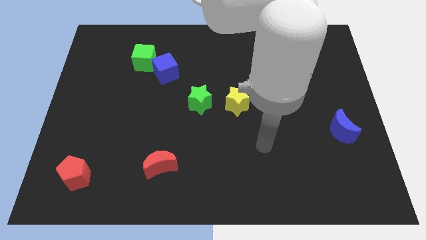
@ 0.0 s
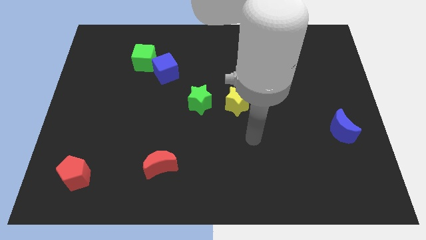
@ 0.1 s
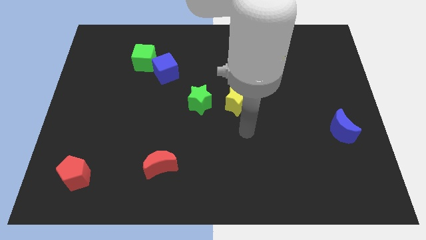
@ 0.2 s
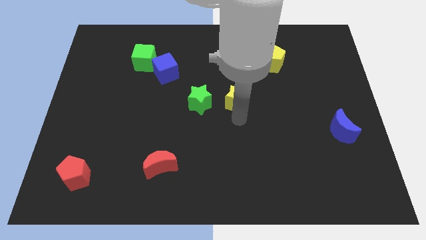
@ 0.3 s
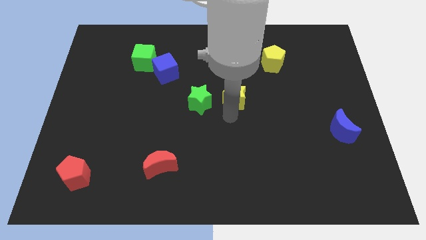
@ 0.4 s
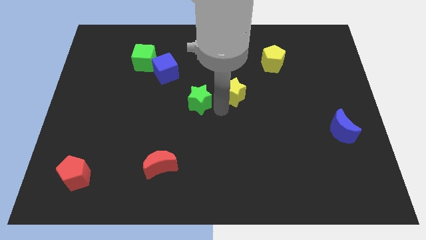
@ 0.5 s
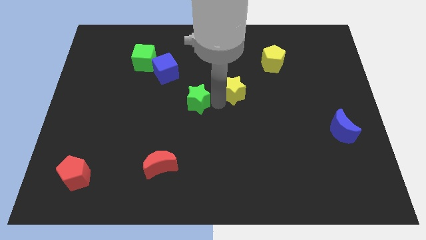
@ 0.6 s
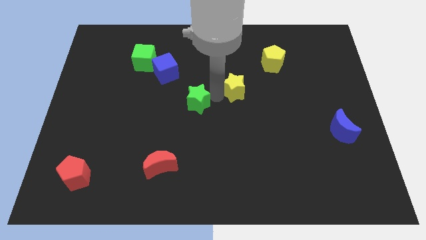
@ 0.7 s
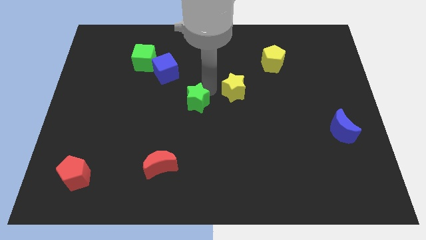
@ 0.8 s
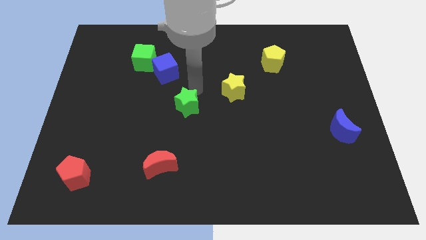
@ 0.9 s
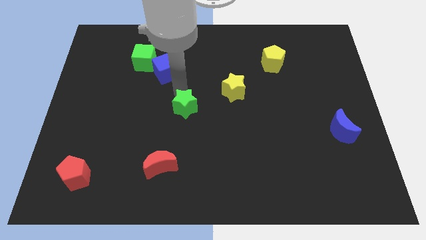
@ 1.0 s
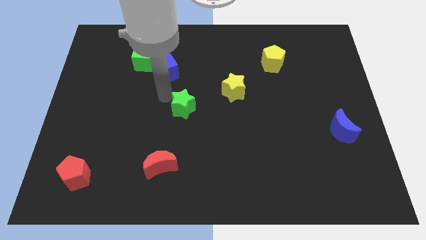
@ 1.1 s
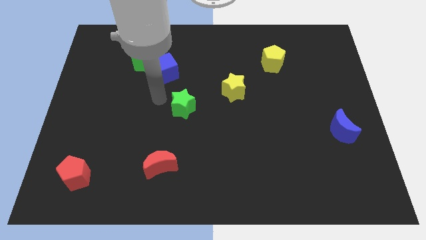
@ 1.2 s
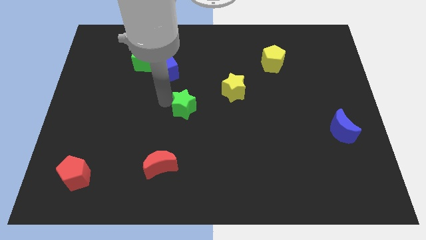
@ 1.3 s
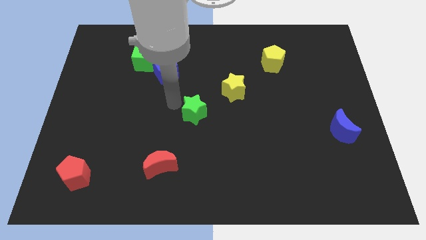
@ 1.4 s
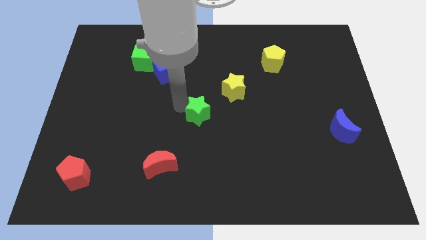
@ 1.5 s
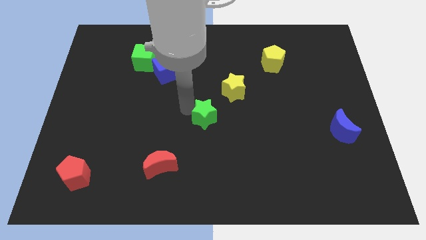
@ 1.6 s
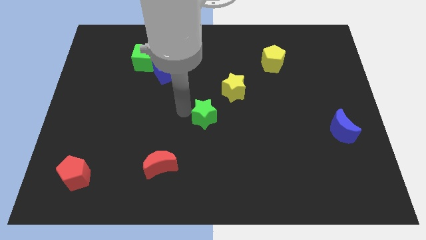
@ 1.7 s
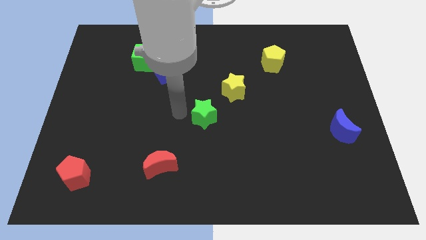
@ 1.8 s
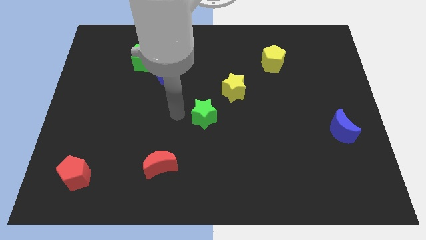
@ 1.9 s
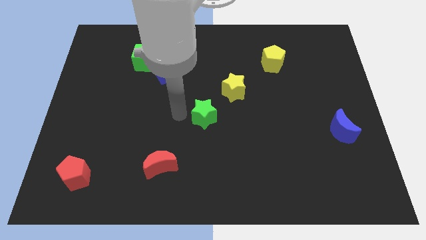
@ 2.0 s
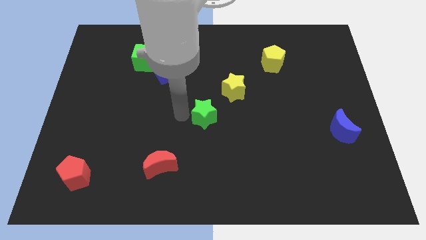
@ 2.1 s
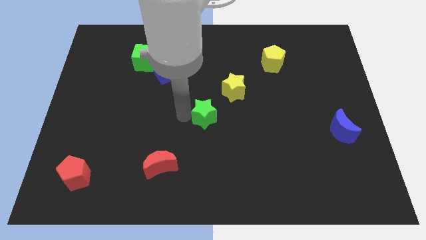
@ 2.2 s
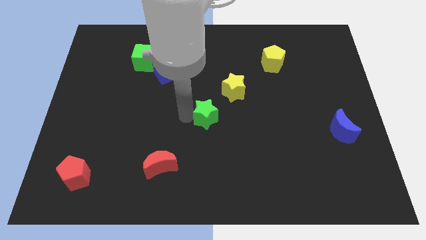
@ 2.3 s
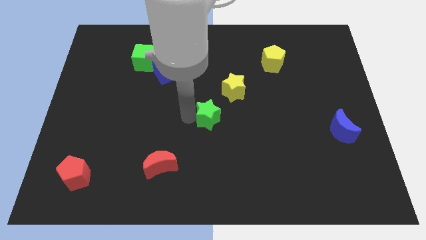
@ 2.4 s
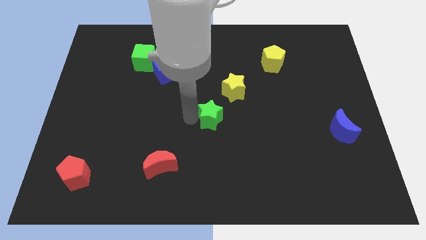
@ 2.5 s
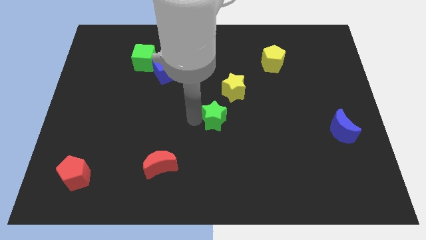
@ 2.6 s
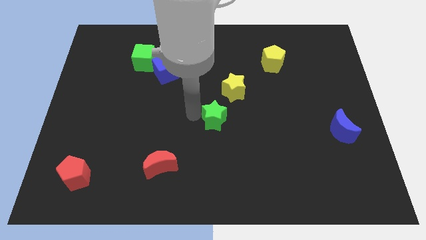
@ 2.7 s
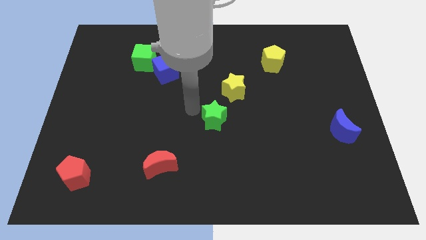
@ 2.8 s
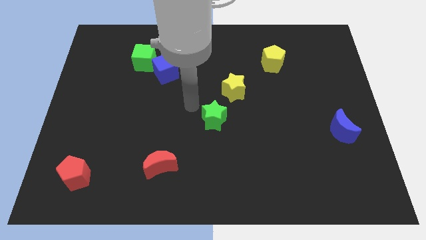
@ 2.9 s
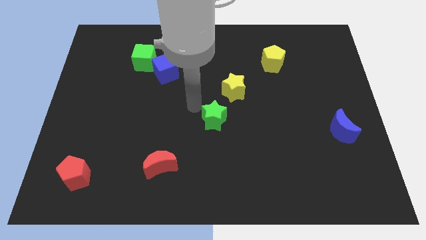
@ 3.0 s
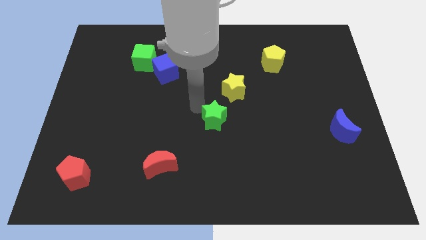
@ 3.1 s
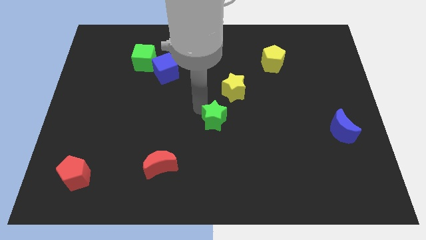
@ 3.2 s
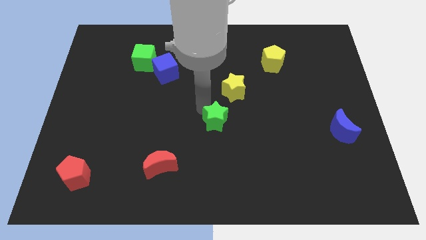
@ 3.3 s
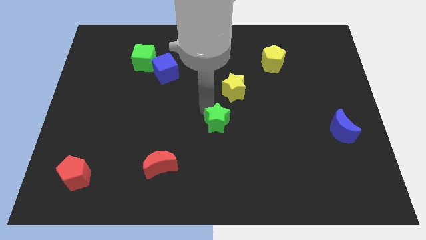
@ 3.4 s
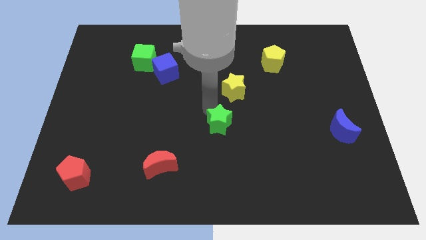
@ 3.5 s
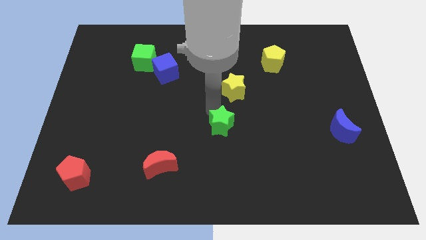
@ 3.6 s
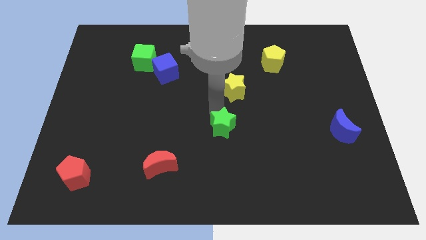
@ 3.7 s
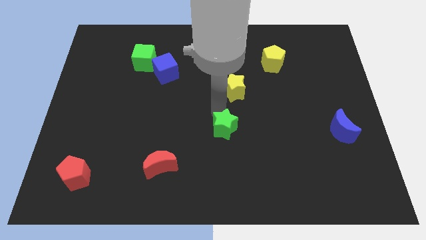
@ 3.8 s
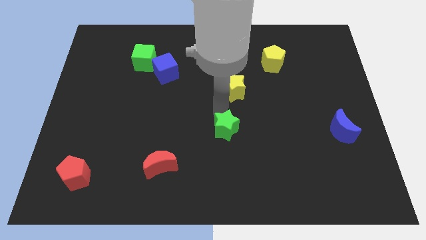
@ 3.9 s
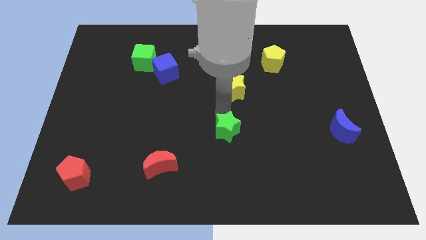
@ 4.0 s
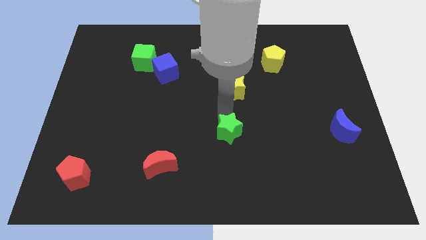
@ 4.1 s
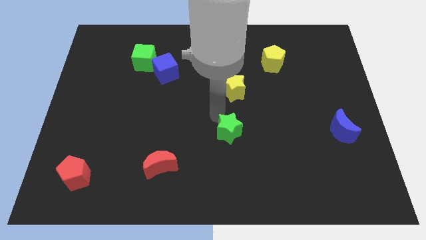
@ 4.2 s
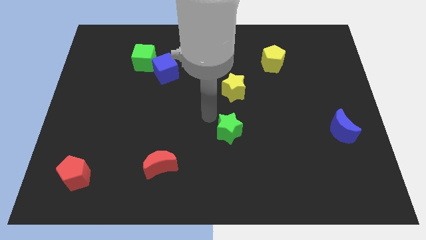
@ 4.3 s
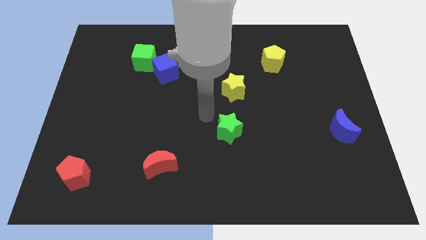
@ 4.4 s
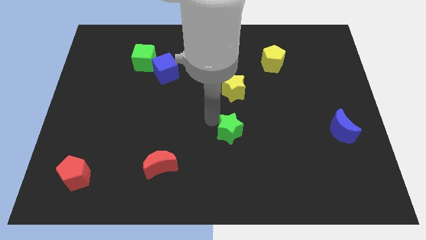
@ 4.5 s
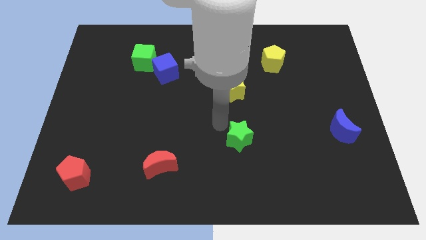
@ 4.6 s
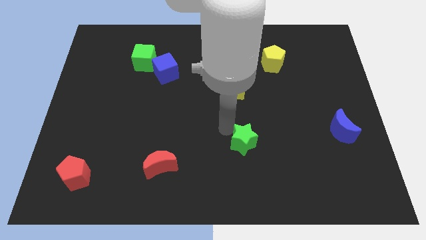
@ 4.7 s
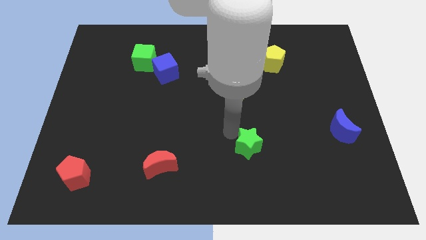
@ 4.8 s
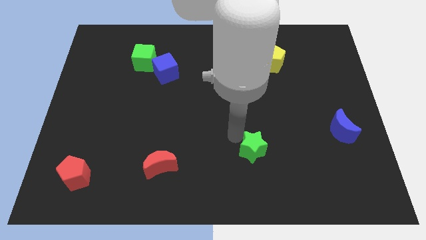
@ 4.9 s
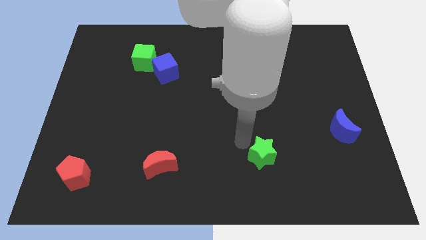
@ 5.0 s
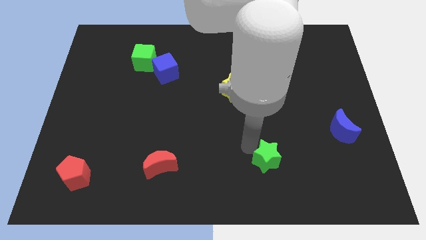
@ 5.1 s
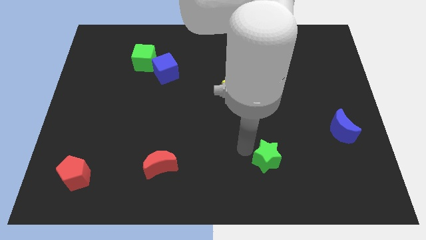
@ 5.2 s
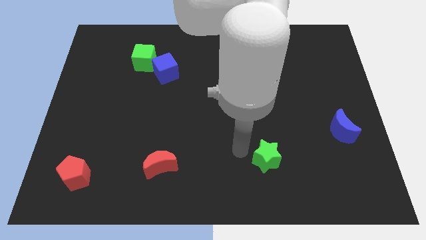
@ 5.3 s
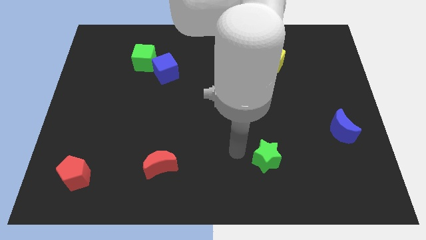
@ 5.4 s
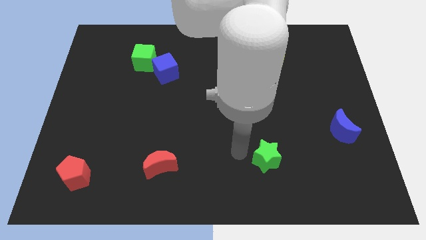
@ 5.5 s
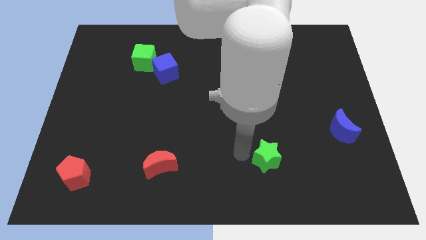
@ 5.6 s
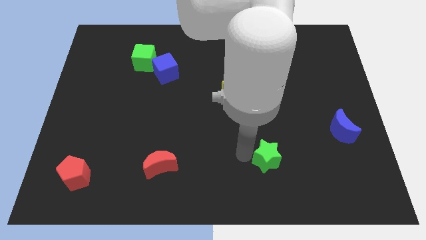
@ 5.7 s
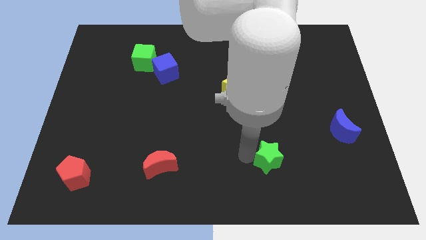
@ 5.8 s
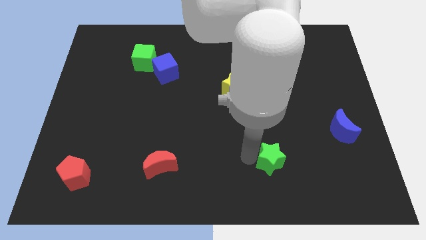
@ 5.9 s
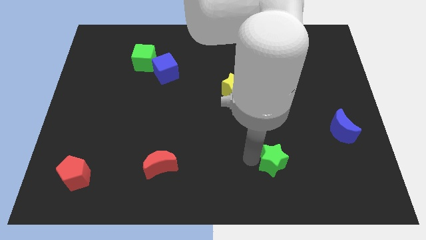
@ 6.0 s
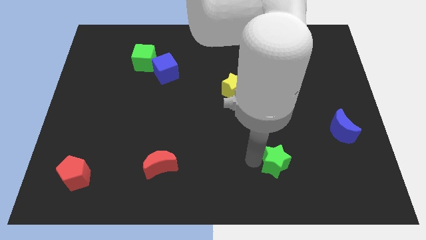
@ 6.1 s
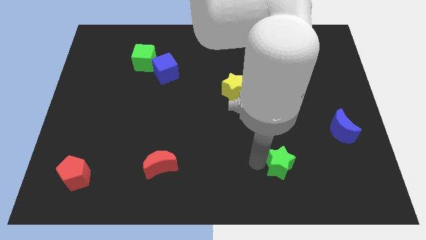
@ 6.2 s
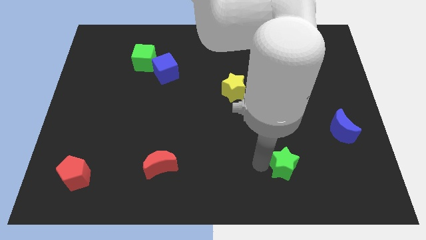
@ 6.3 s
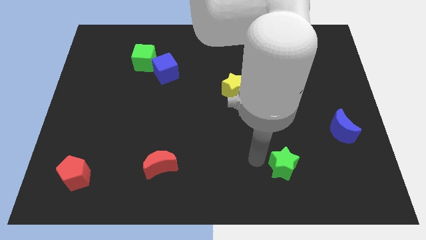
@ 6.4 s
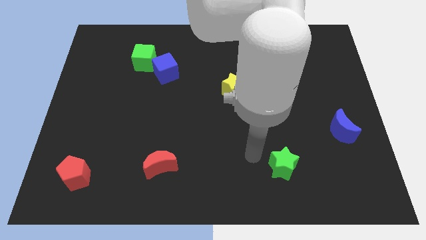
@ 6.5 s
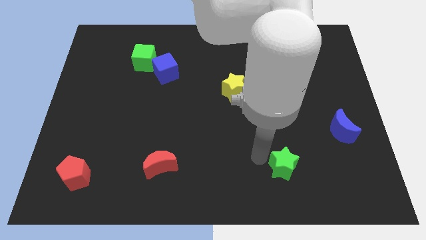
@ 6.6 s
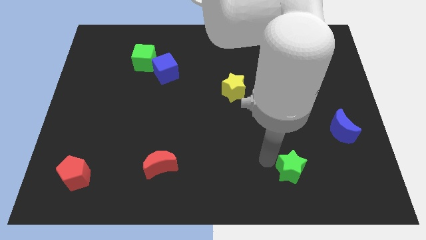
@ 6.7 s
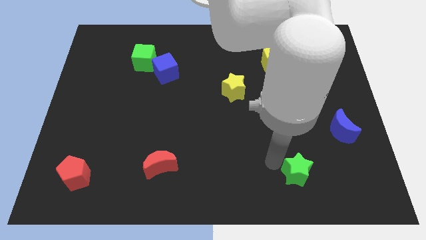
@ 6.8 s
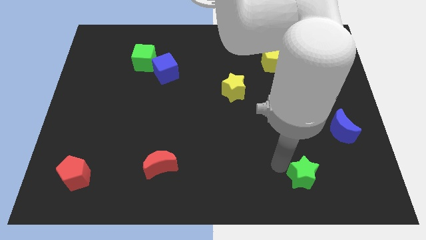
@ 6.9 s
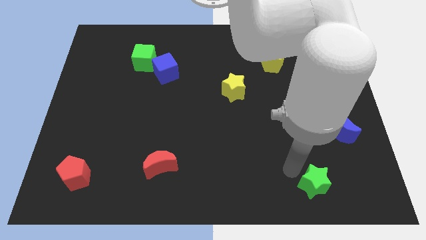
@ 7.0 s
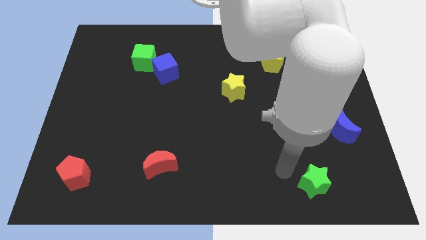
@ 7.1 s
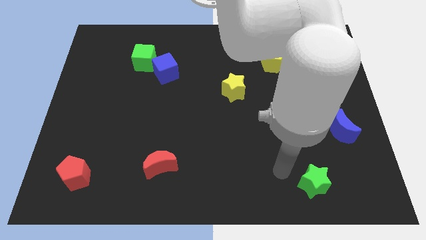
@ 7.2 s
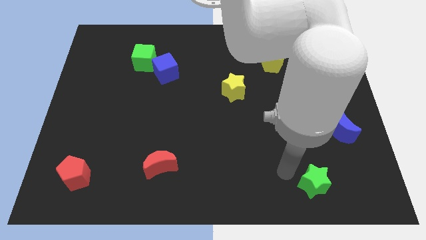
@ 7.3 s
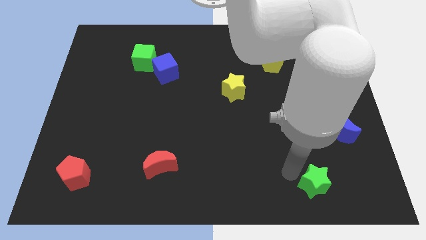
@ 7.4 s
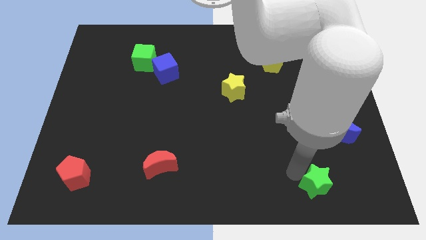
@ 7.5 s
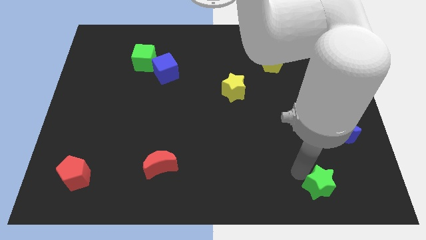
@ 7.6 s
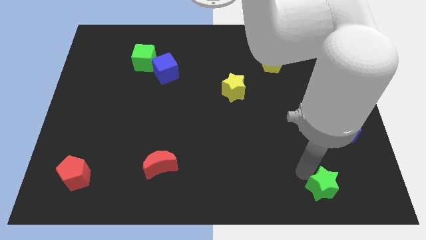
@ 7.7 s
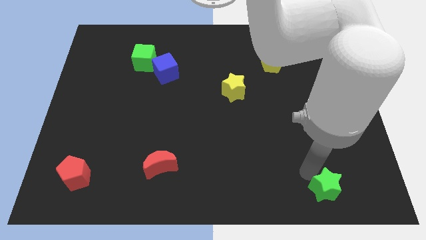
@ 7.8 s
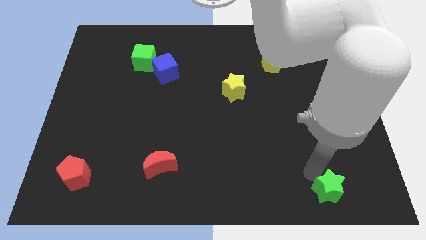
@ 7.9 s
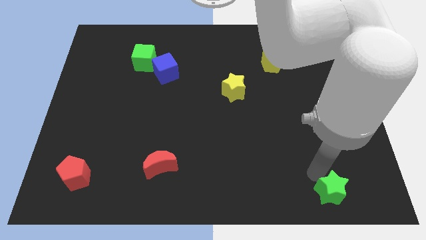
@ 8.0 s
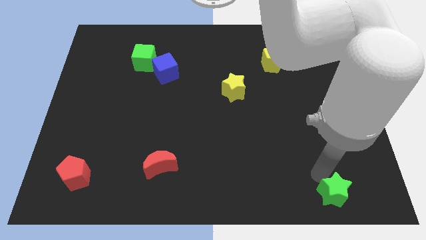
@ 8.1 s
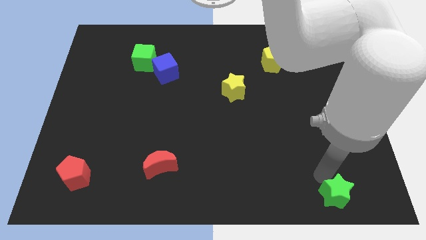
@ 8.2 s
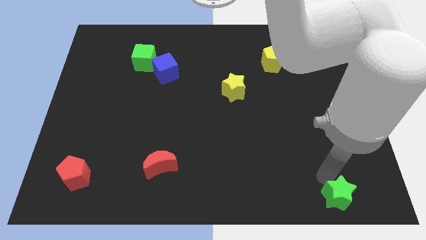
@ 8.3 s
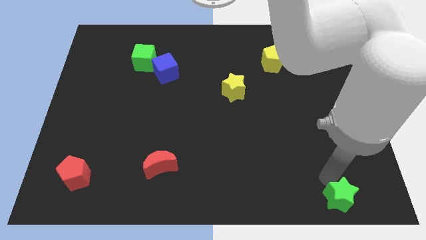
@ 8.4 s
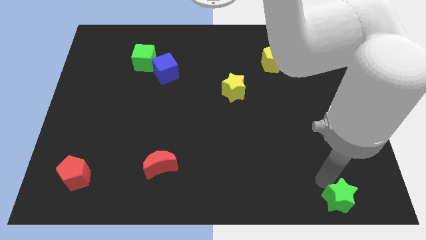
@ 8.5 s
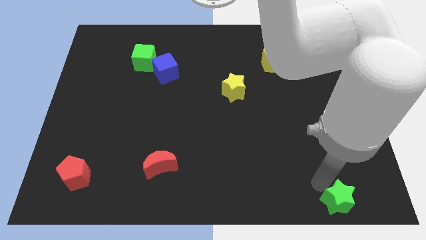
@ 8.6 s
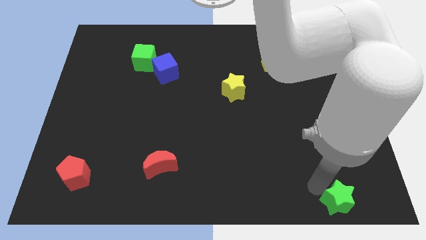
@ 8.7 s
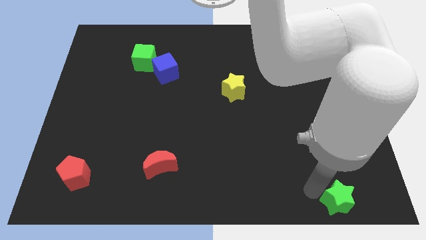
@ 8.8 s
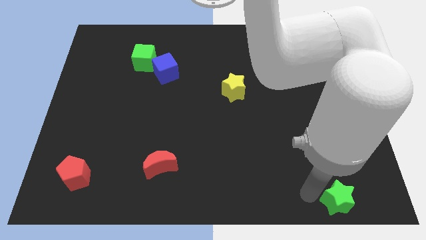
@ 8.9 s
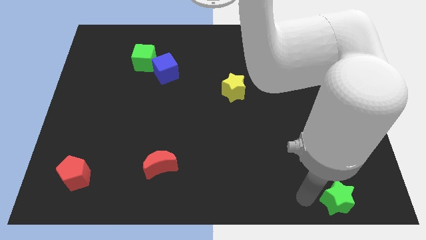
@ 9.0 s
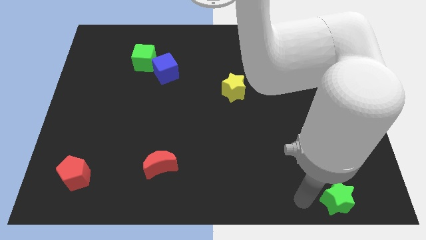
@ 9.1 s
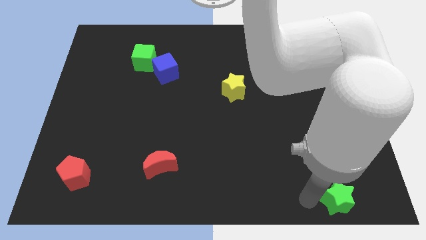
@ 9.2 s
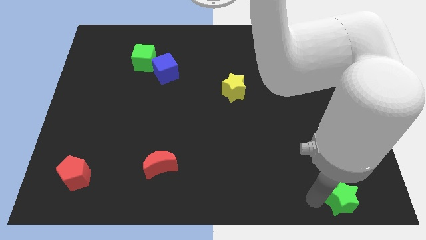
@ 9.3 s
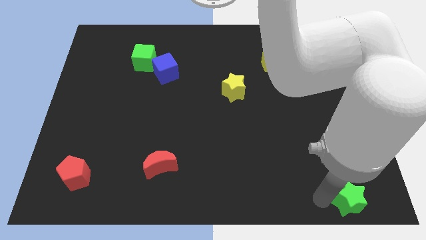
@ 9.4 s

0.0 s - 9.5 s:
push the green star to the bottom right of the board
